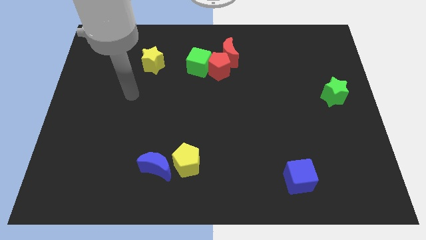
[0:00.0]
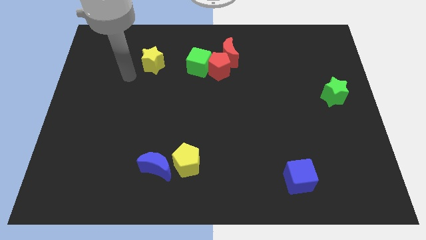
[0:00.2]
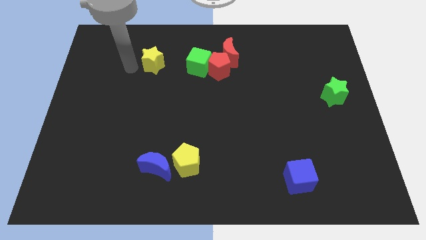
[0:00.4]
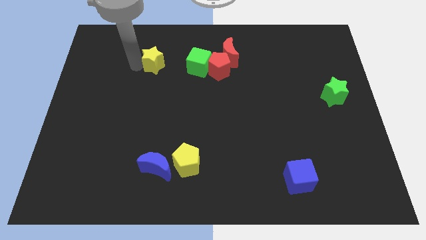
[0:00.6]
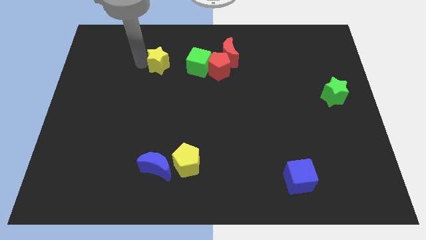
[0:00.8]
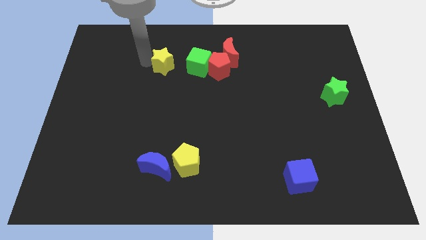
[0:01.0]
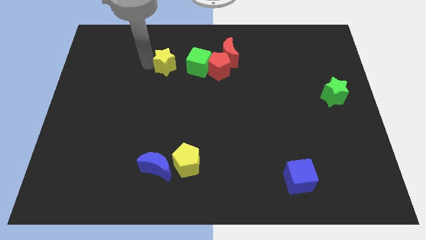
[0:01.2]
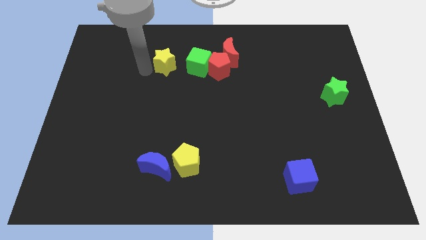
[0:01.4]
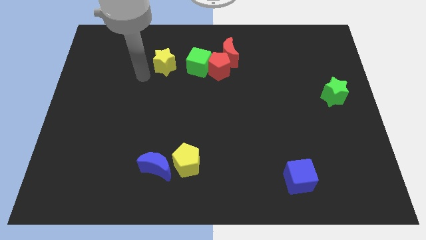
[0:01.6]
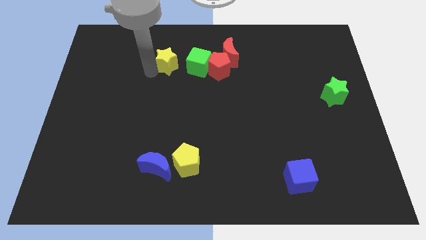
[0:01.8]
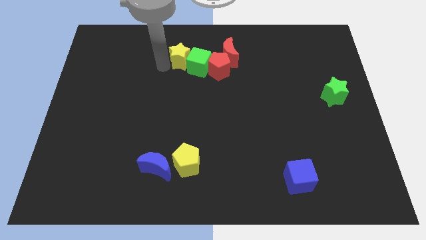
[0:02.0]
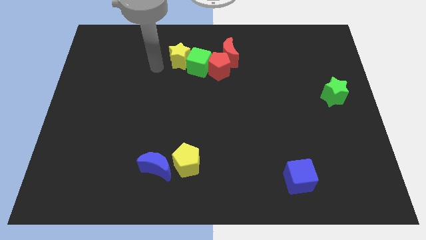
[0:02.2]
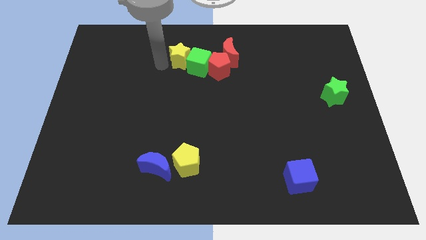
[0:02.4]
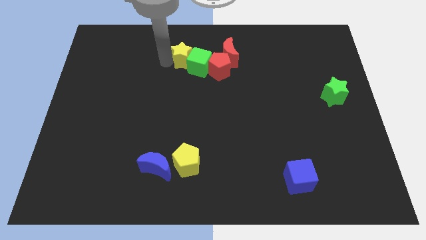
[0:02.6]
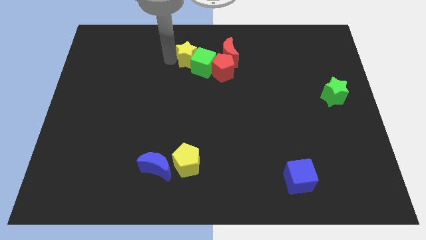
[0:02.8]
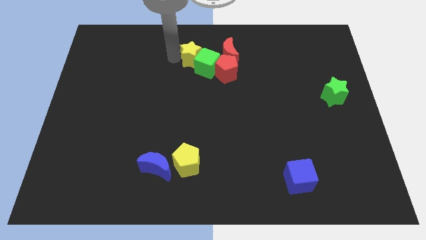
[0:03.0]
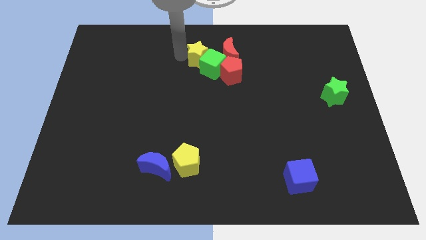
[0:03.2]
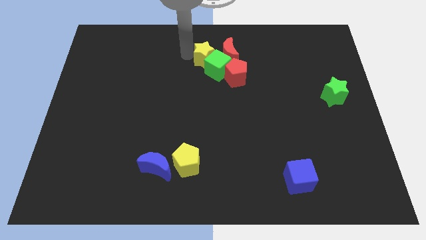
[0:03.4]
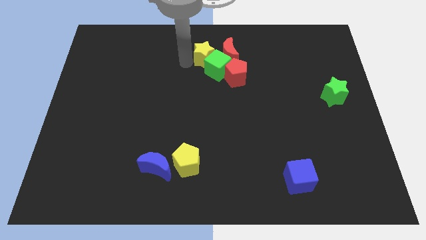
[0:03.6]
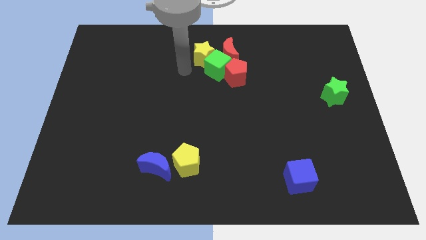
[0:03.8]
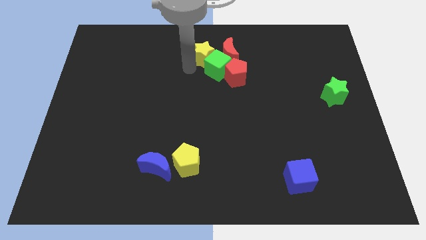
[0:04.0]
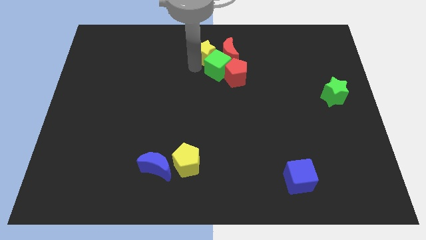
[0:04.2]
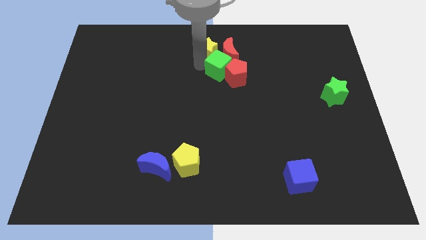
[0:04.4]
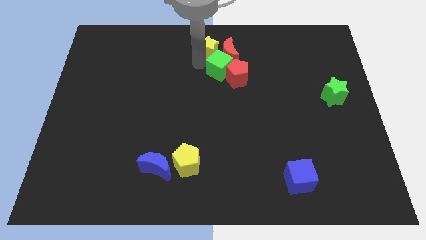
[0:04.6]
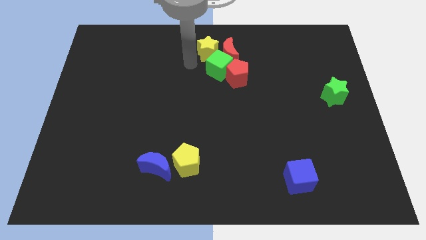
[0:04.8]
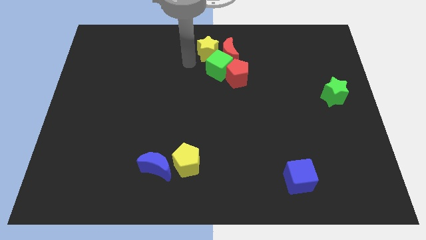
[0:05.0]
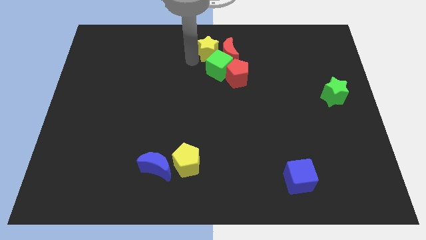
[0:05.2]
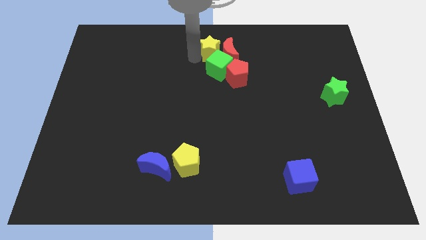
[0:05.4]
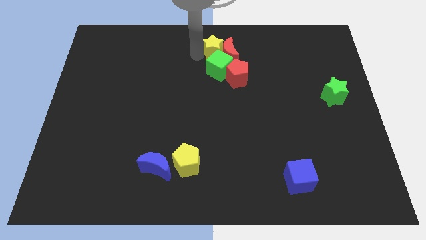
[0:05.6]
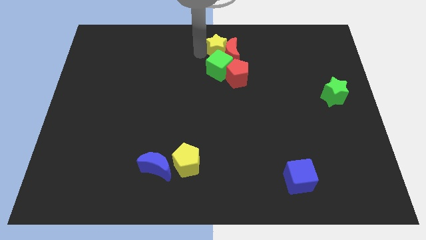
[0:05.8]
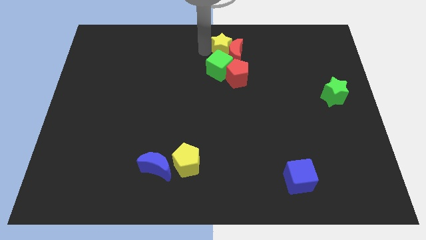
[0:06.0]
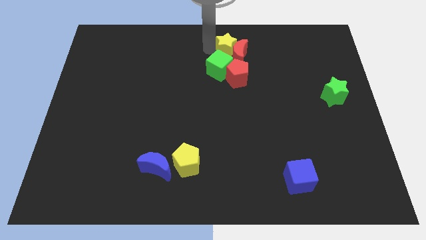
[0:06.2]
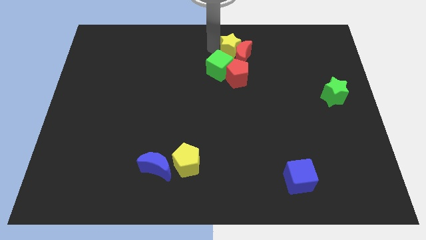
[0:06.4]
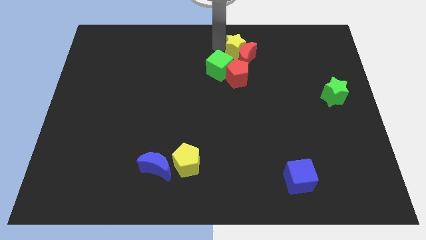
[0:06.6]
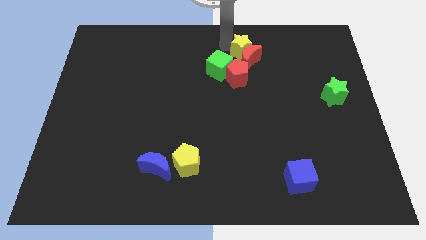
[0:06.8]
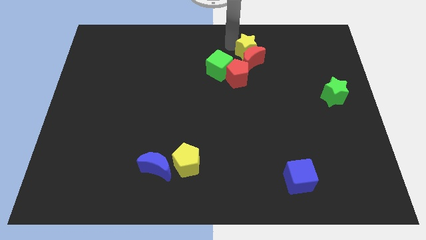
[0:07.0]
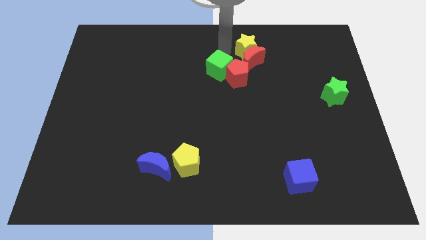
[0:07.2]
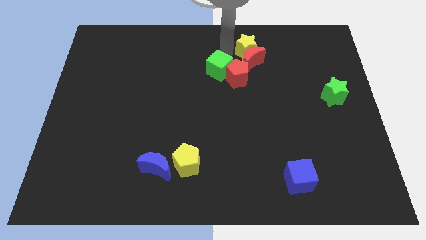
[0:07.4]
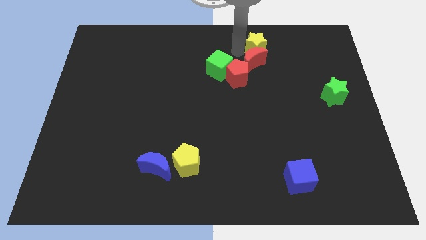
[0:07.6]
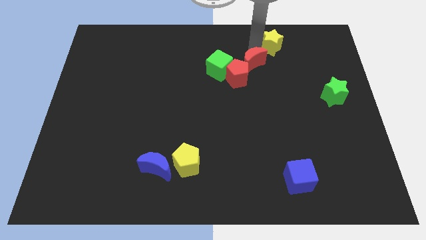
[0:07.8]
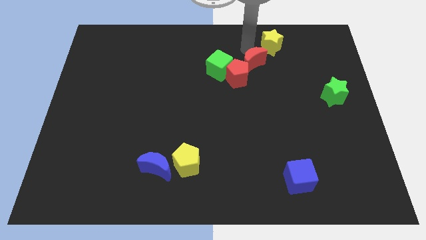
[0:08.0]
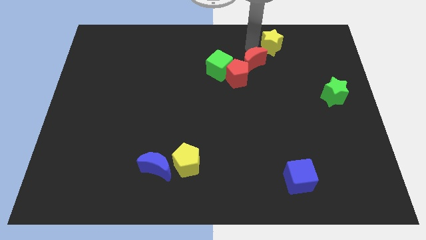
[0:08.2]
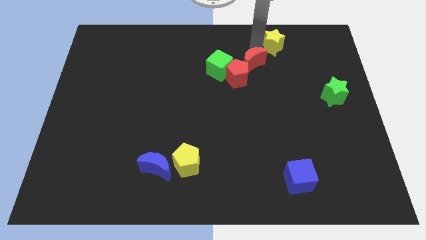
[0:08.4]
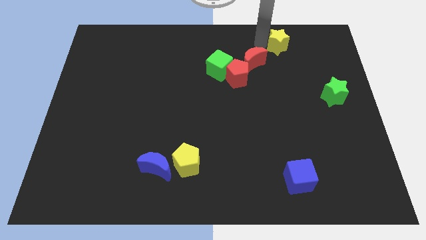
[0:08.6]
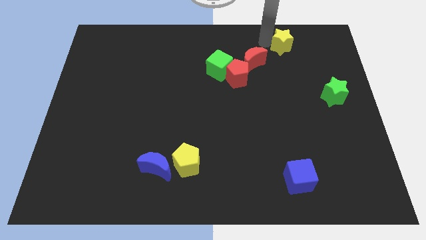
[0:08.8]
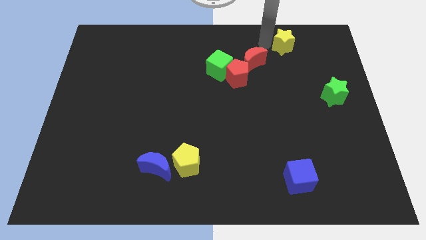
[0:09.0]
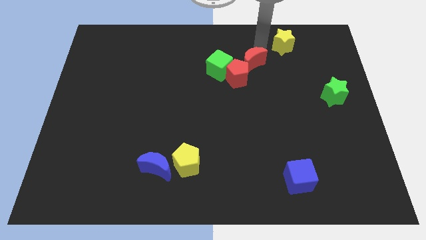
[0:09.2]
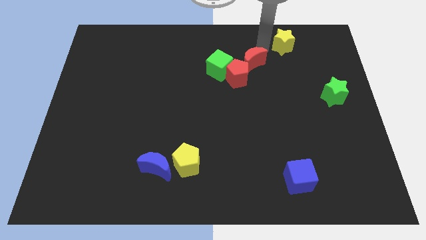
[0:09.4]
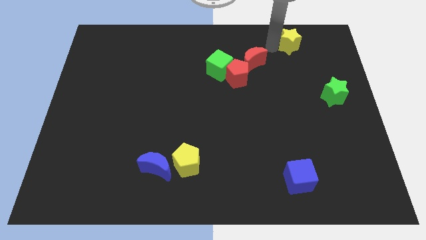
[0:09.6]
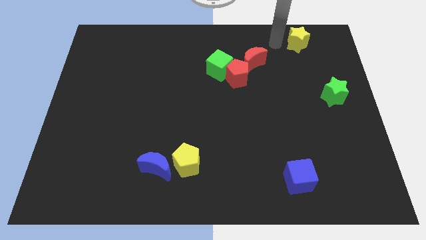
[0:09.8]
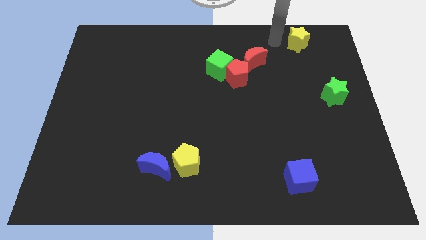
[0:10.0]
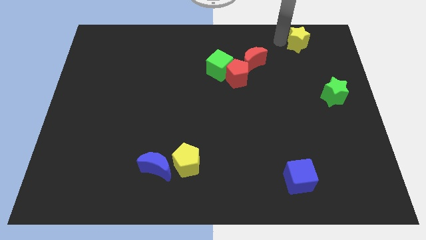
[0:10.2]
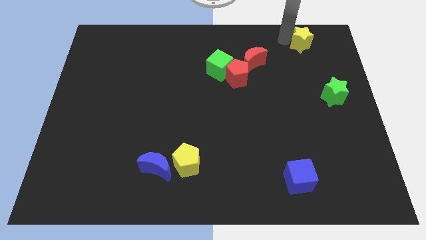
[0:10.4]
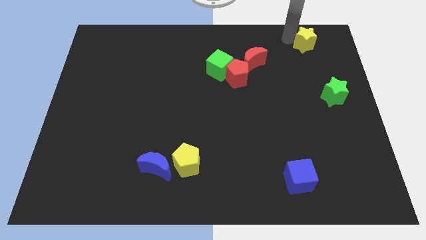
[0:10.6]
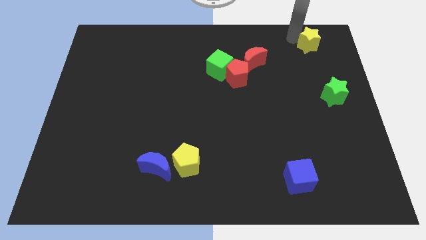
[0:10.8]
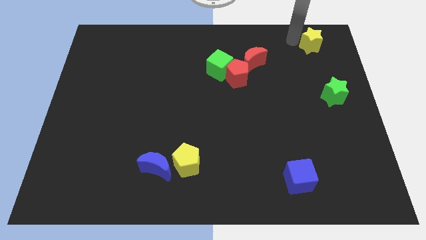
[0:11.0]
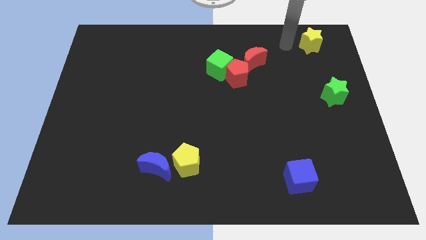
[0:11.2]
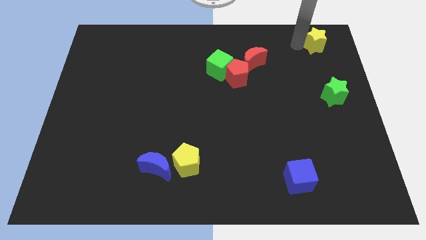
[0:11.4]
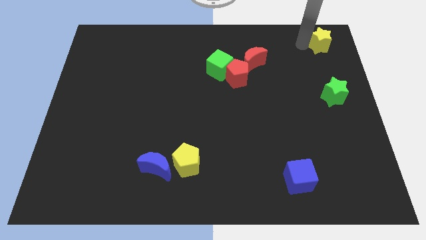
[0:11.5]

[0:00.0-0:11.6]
put the yellow star to the upper right corner
